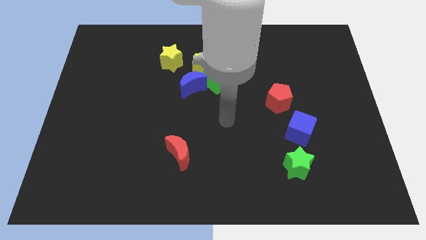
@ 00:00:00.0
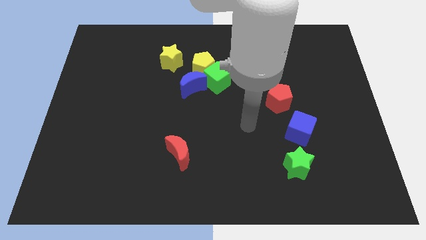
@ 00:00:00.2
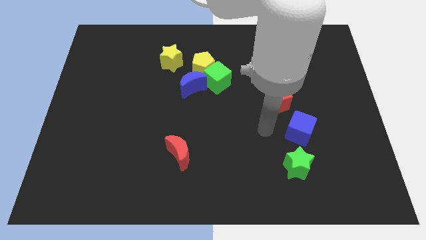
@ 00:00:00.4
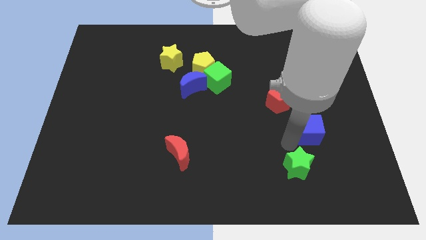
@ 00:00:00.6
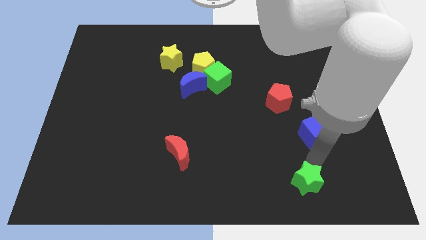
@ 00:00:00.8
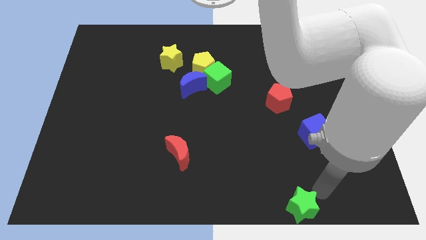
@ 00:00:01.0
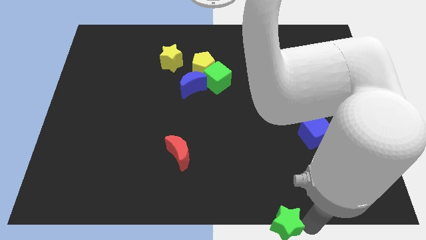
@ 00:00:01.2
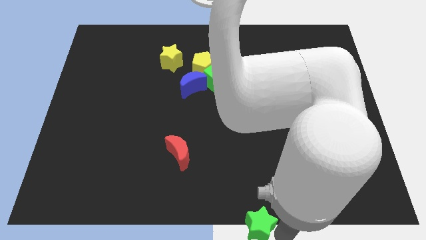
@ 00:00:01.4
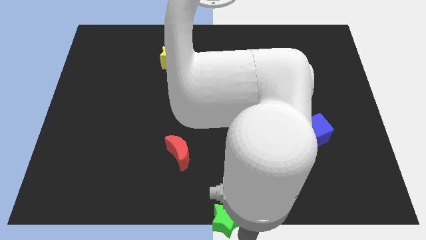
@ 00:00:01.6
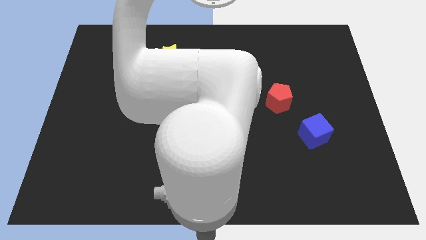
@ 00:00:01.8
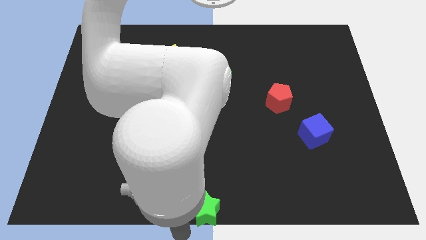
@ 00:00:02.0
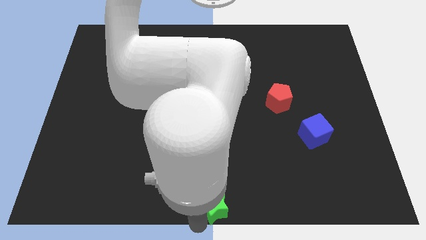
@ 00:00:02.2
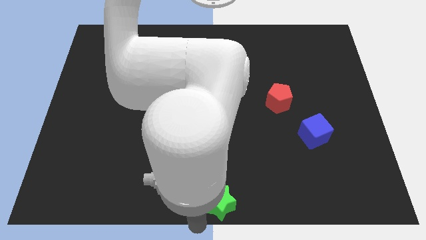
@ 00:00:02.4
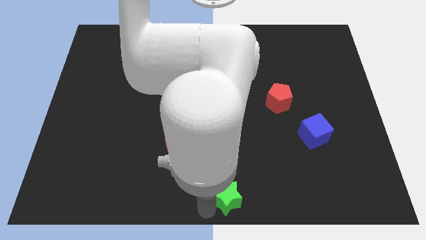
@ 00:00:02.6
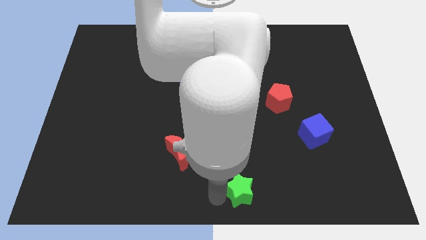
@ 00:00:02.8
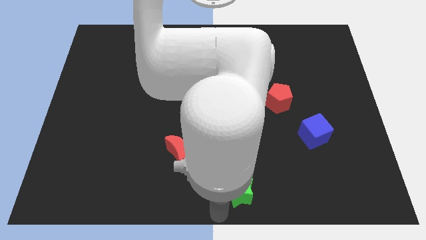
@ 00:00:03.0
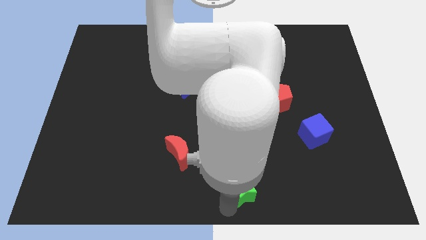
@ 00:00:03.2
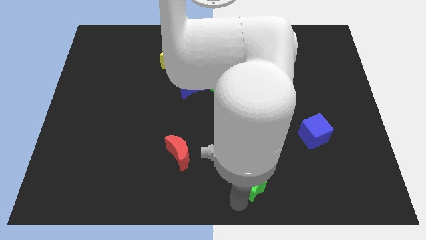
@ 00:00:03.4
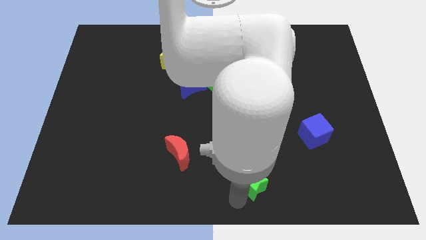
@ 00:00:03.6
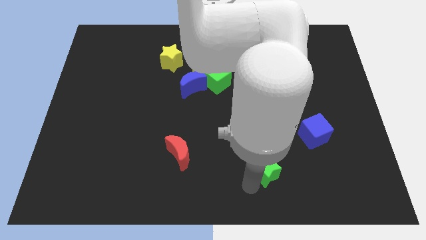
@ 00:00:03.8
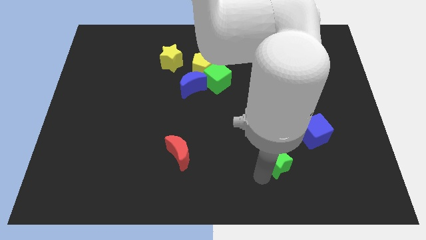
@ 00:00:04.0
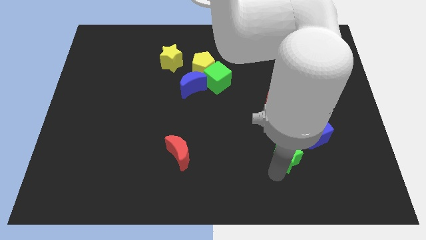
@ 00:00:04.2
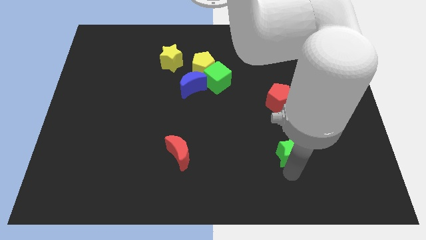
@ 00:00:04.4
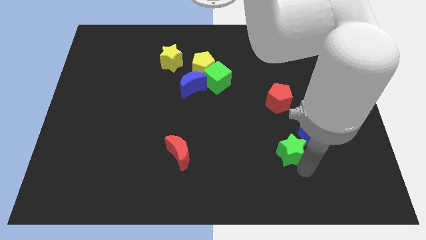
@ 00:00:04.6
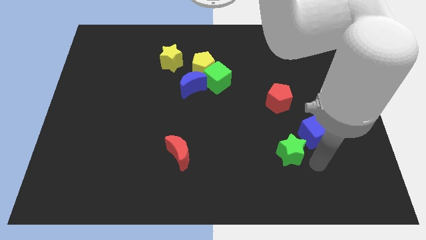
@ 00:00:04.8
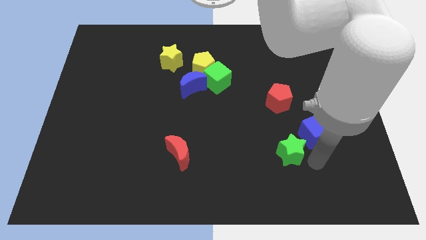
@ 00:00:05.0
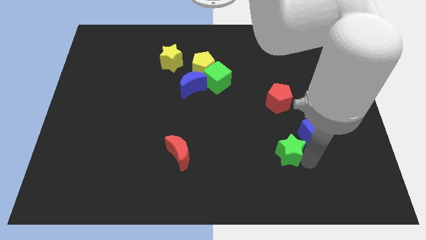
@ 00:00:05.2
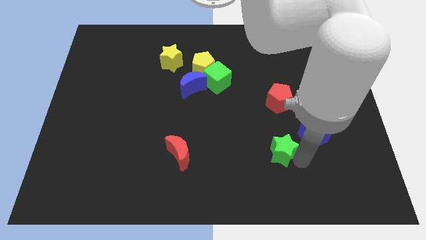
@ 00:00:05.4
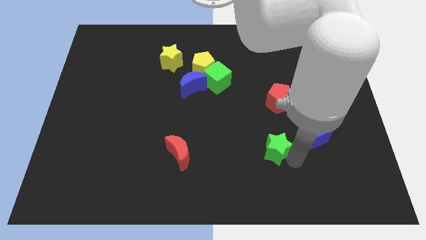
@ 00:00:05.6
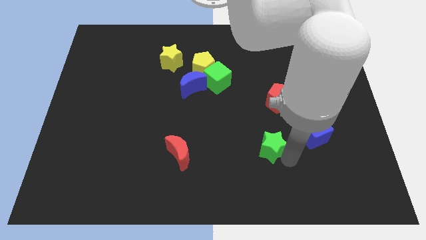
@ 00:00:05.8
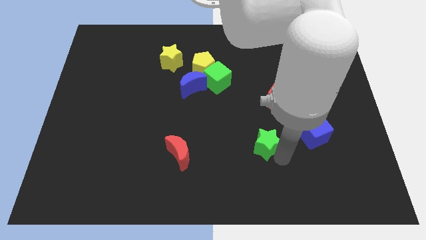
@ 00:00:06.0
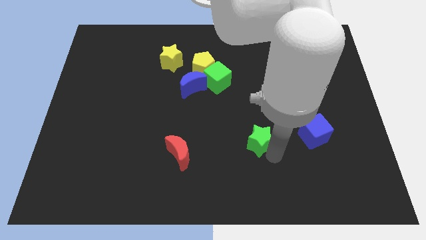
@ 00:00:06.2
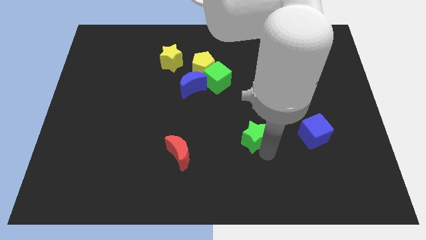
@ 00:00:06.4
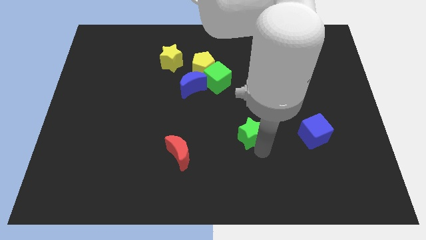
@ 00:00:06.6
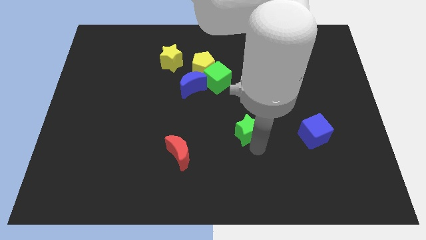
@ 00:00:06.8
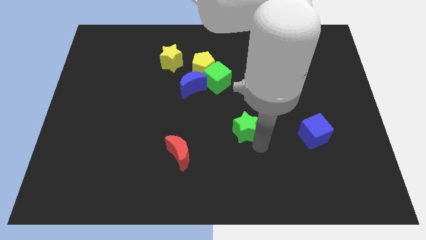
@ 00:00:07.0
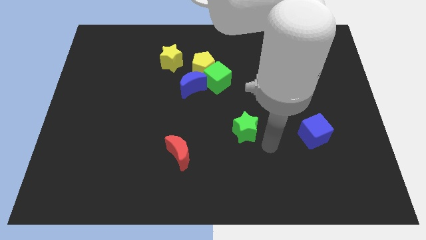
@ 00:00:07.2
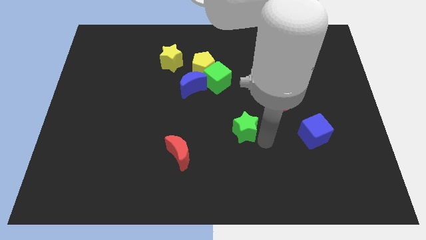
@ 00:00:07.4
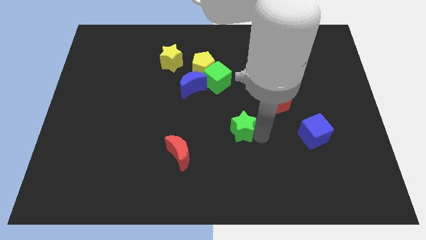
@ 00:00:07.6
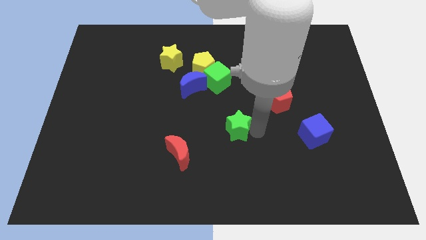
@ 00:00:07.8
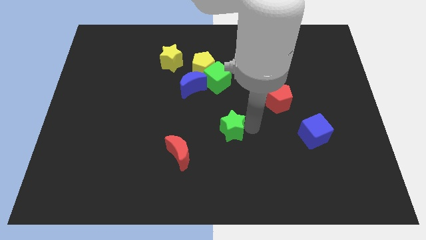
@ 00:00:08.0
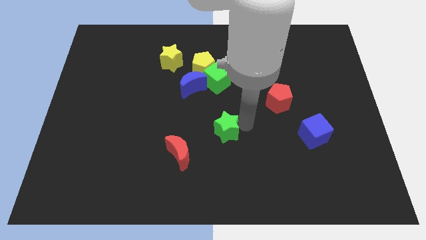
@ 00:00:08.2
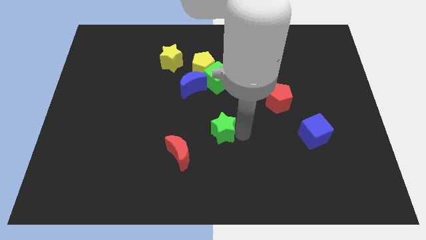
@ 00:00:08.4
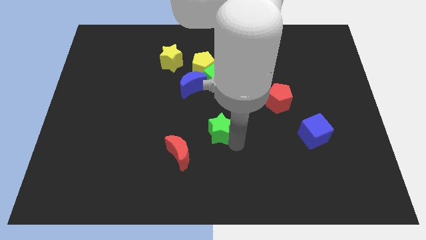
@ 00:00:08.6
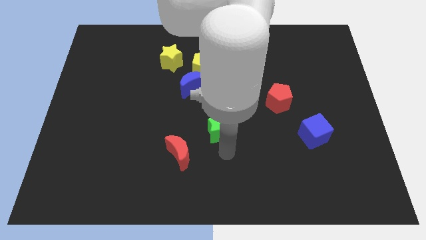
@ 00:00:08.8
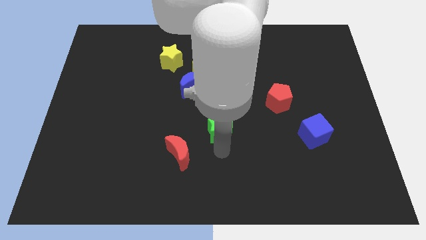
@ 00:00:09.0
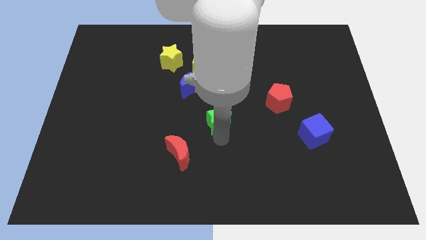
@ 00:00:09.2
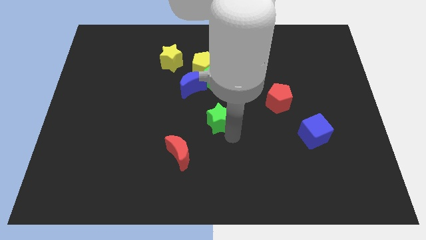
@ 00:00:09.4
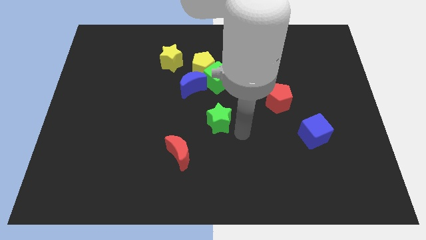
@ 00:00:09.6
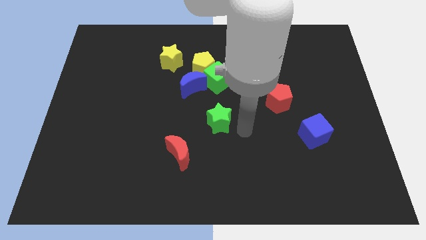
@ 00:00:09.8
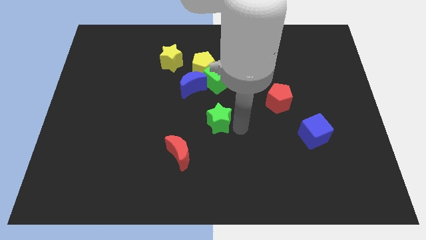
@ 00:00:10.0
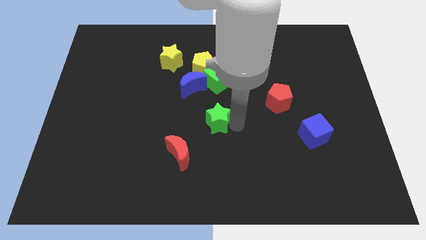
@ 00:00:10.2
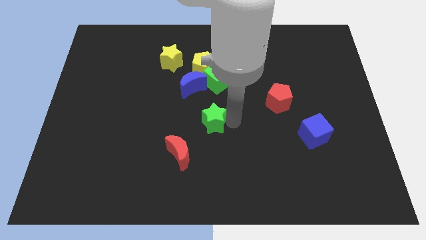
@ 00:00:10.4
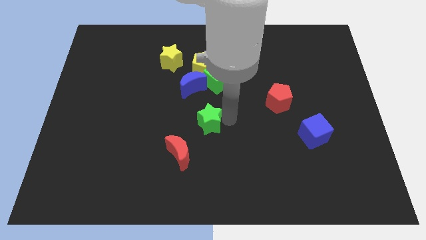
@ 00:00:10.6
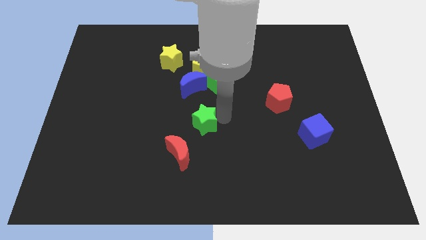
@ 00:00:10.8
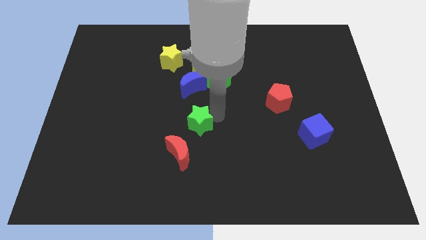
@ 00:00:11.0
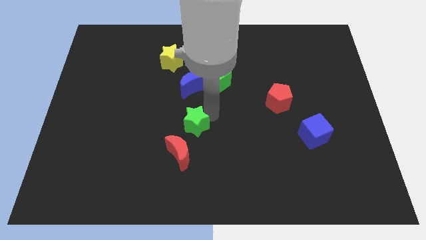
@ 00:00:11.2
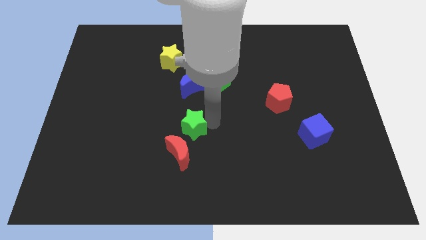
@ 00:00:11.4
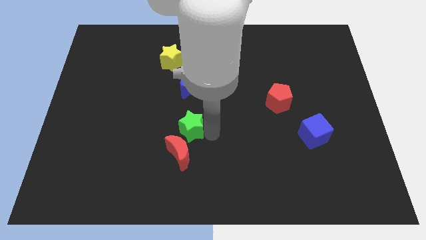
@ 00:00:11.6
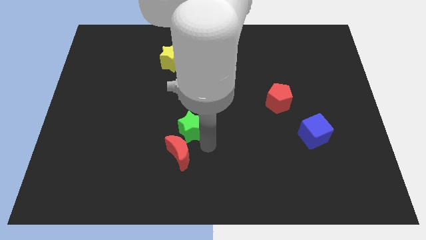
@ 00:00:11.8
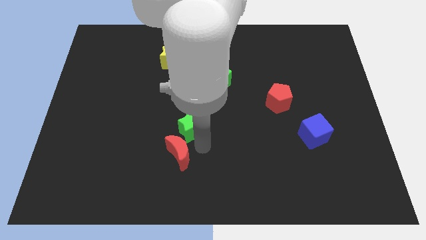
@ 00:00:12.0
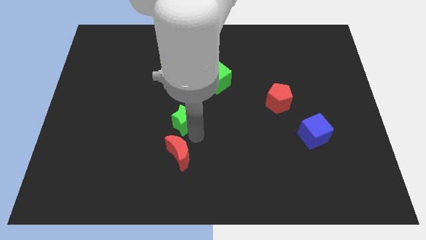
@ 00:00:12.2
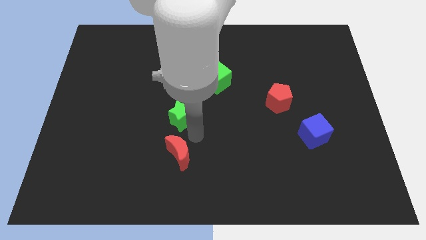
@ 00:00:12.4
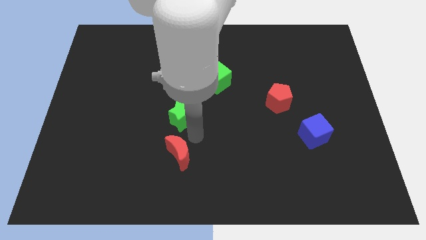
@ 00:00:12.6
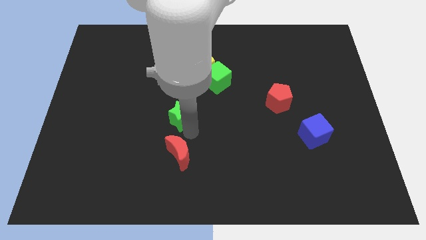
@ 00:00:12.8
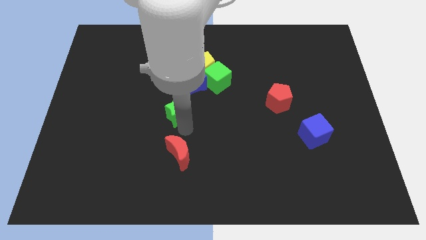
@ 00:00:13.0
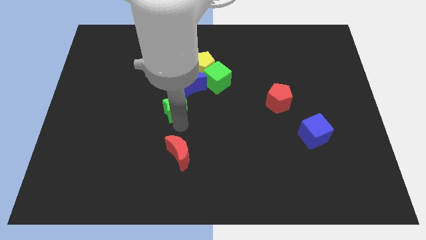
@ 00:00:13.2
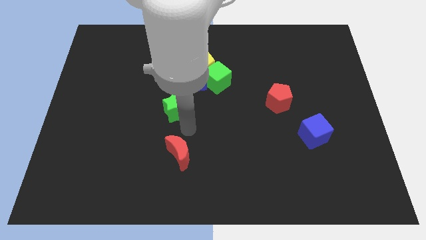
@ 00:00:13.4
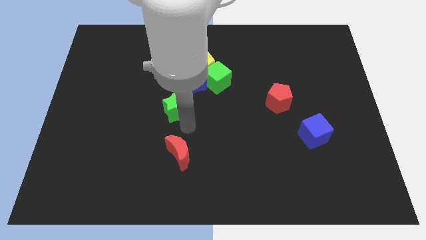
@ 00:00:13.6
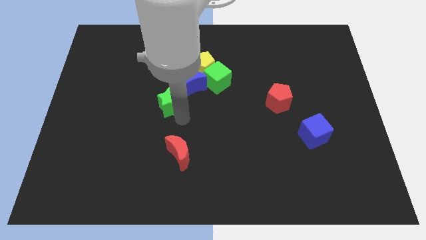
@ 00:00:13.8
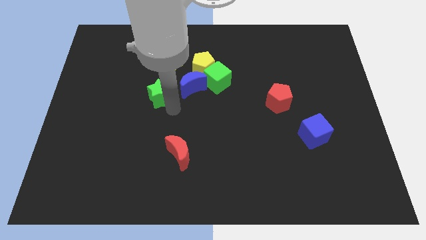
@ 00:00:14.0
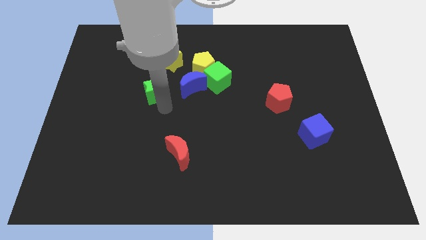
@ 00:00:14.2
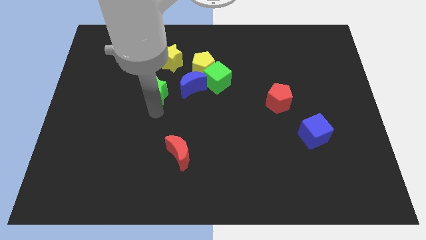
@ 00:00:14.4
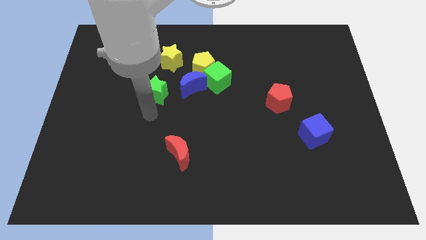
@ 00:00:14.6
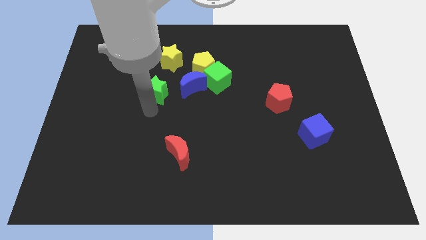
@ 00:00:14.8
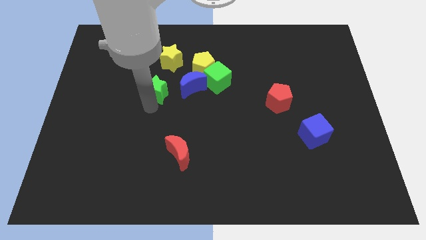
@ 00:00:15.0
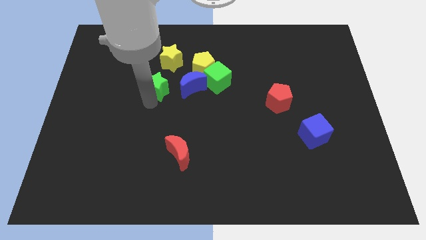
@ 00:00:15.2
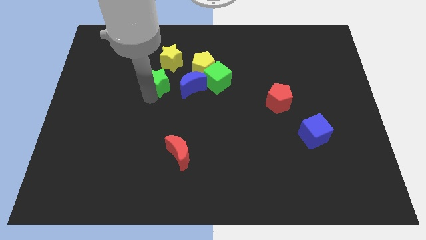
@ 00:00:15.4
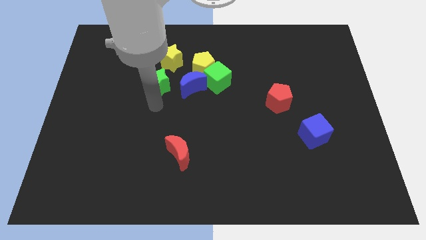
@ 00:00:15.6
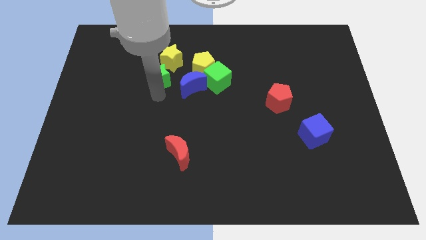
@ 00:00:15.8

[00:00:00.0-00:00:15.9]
push the green star left of the yellow pentagon
